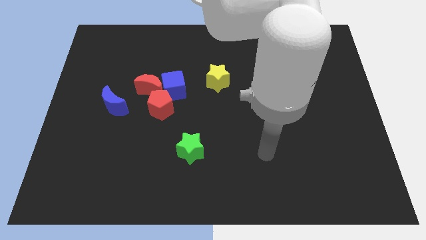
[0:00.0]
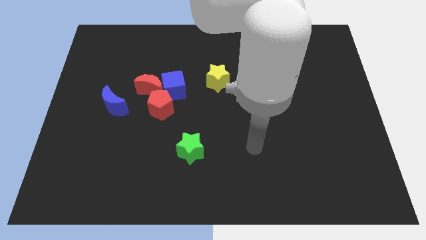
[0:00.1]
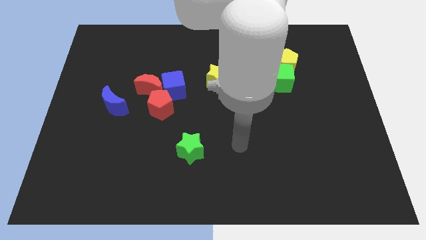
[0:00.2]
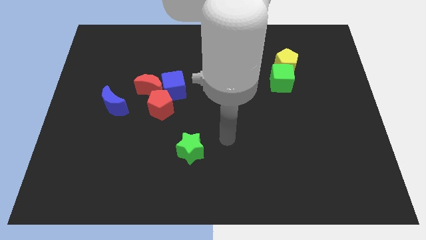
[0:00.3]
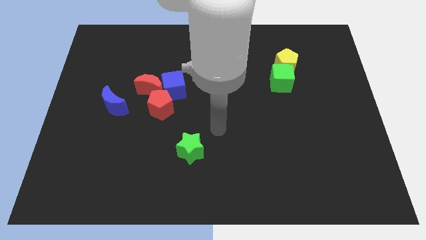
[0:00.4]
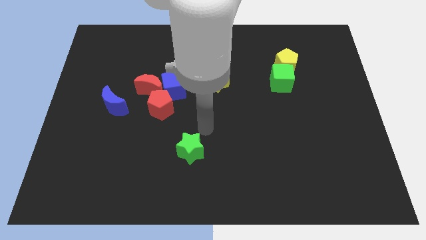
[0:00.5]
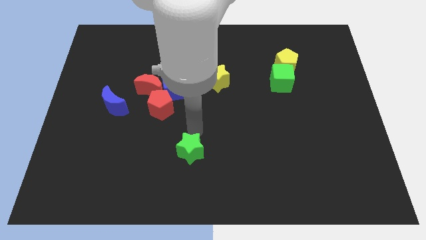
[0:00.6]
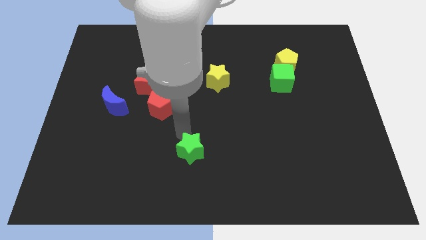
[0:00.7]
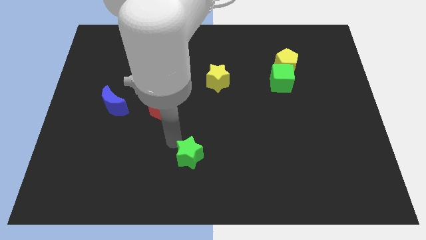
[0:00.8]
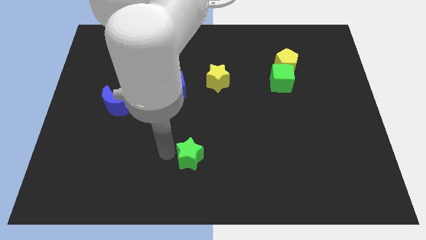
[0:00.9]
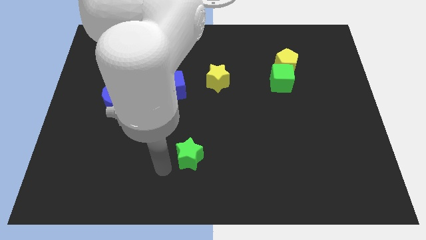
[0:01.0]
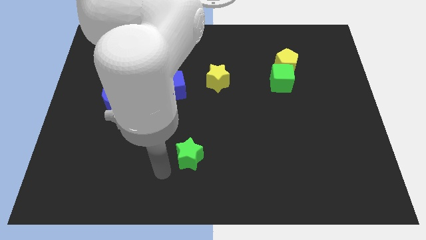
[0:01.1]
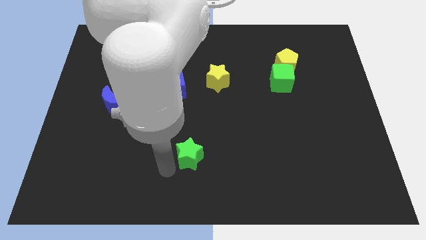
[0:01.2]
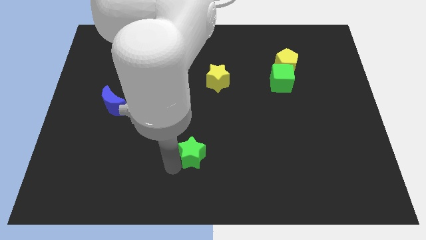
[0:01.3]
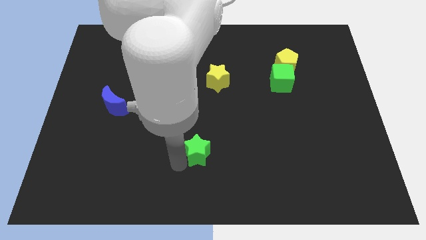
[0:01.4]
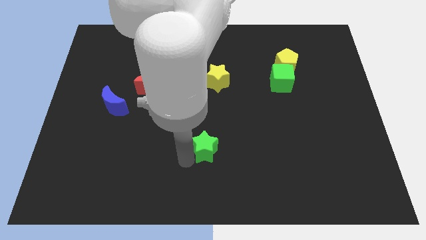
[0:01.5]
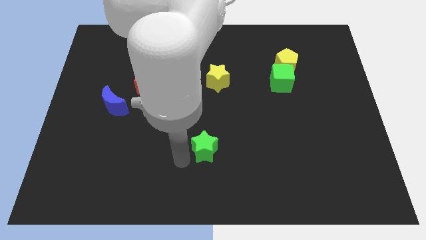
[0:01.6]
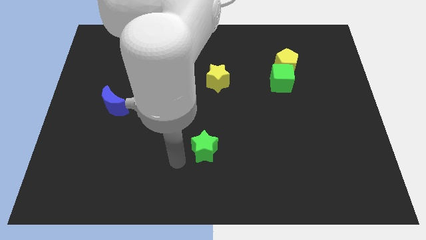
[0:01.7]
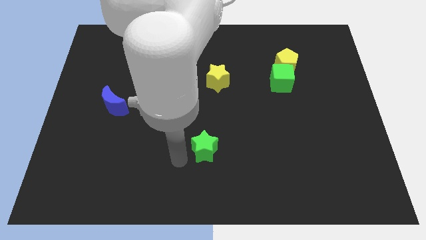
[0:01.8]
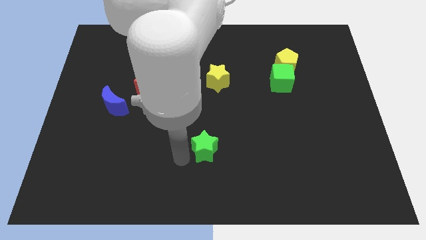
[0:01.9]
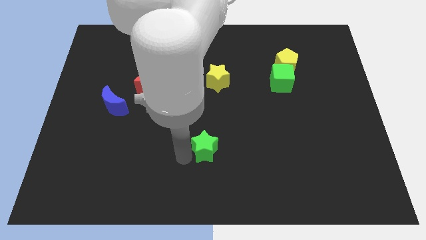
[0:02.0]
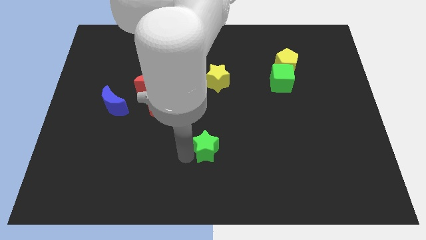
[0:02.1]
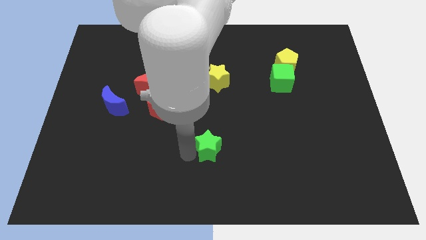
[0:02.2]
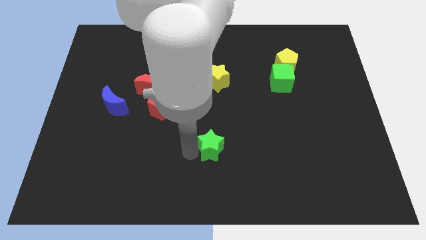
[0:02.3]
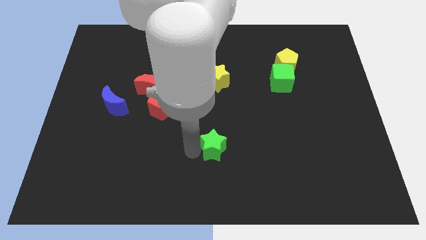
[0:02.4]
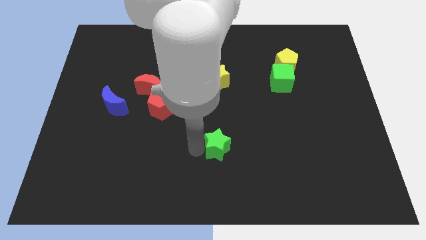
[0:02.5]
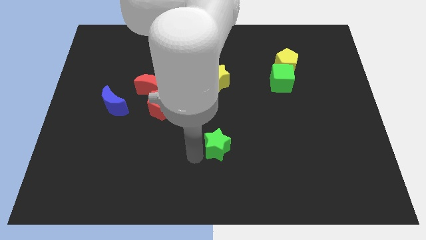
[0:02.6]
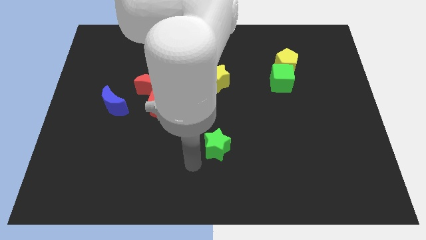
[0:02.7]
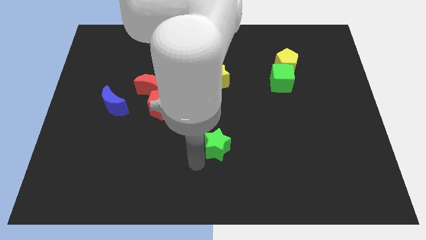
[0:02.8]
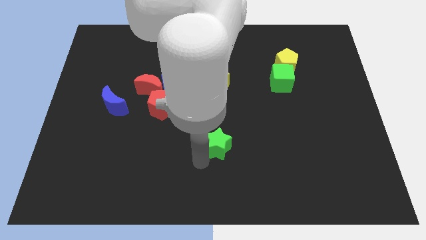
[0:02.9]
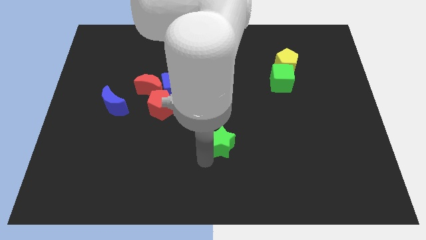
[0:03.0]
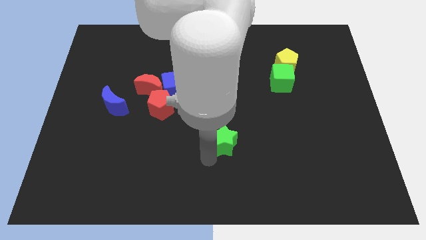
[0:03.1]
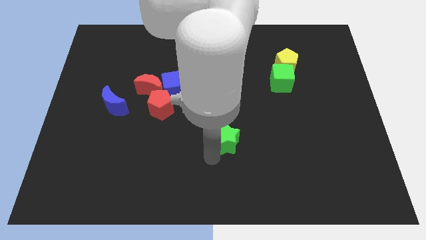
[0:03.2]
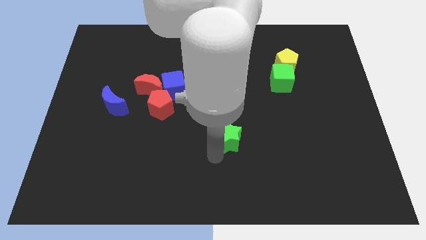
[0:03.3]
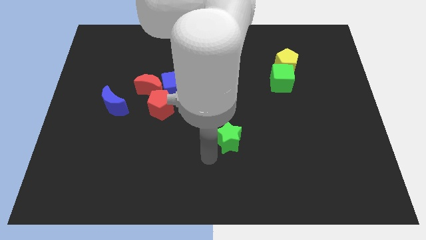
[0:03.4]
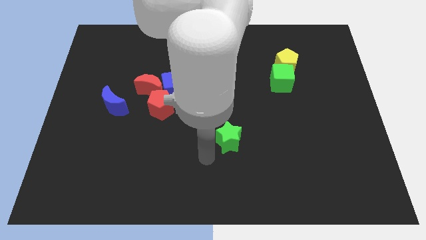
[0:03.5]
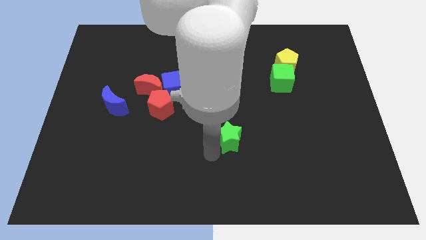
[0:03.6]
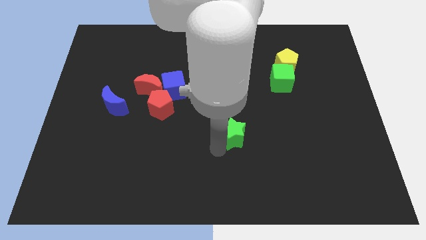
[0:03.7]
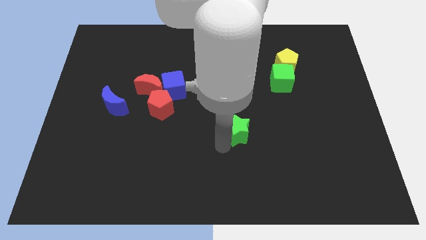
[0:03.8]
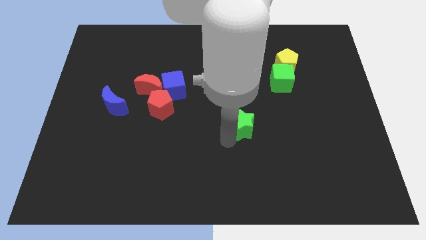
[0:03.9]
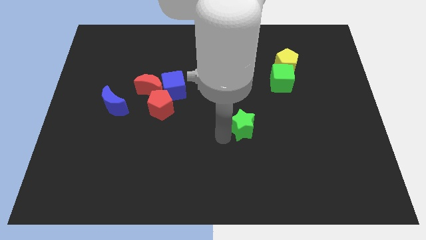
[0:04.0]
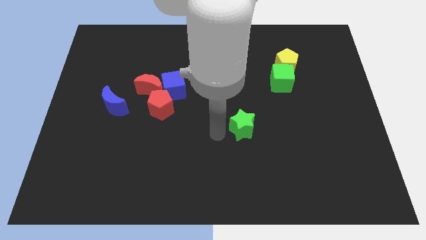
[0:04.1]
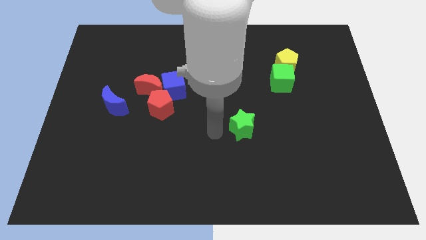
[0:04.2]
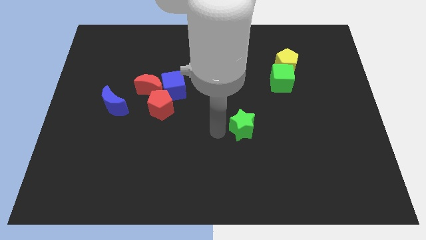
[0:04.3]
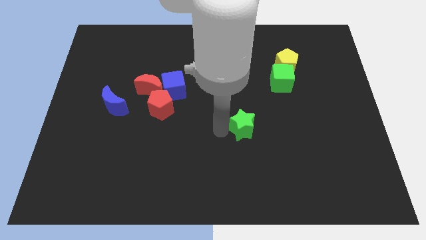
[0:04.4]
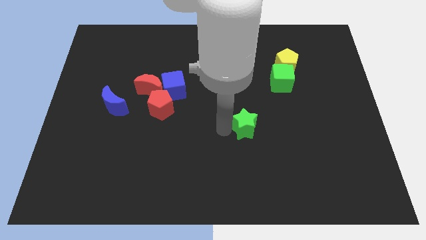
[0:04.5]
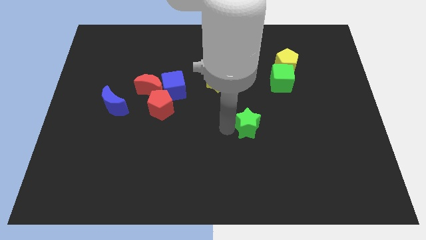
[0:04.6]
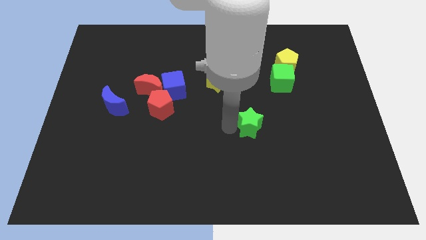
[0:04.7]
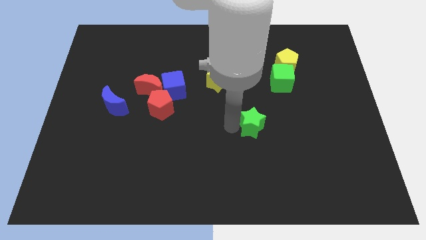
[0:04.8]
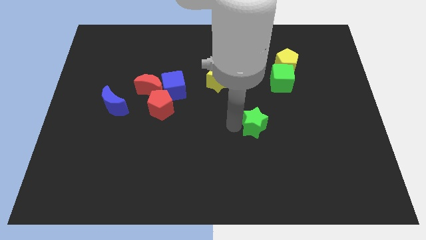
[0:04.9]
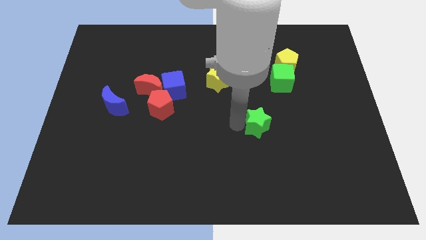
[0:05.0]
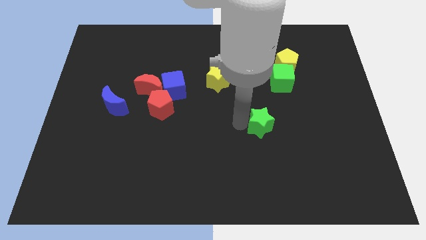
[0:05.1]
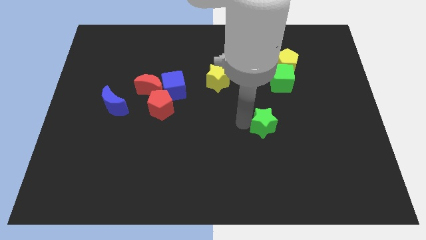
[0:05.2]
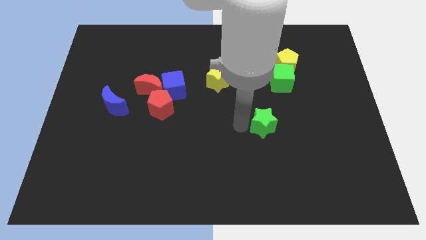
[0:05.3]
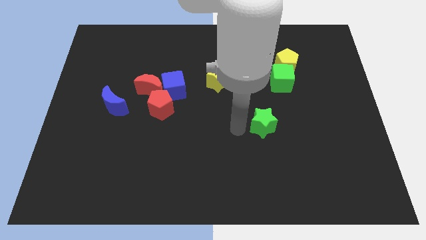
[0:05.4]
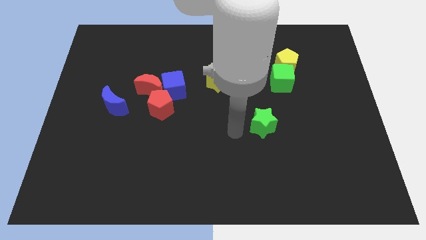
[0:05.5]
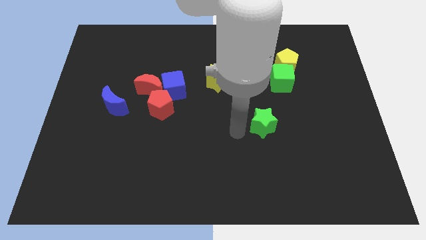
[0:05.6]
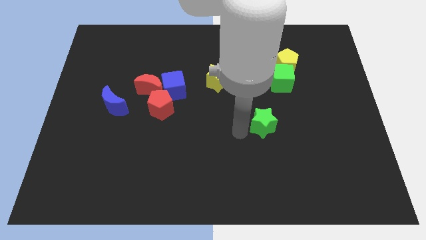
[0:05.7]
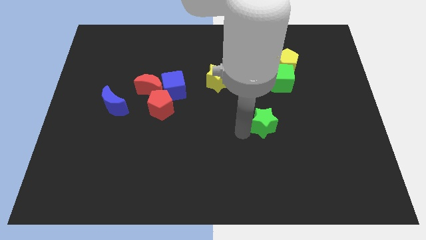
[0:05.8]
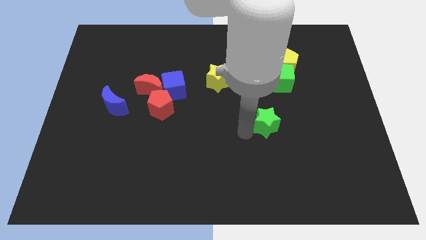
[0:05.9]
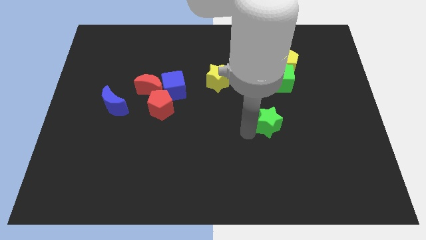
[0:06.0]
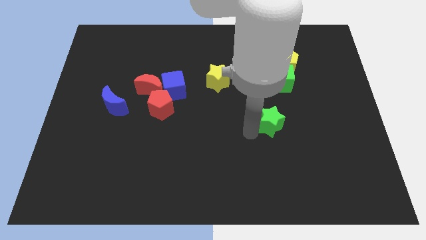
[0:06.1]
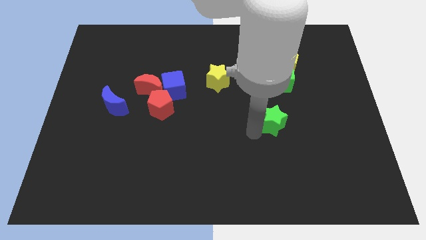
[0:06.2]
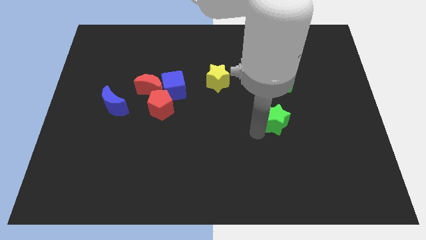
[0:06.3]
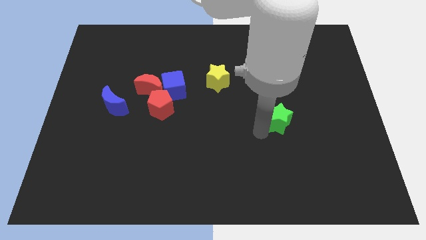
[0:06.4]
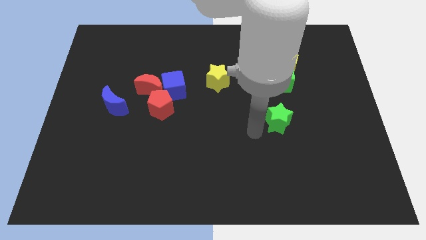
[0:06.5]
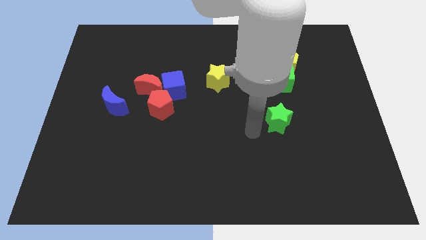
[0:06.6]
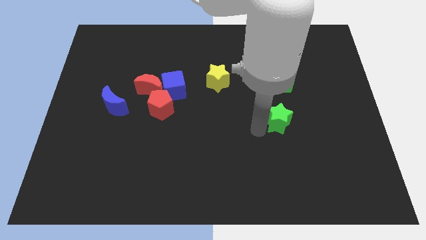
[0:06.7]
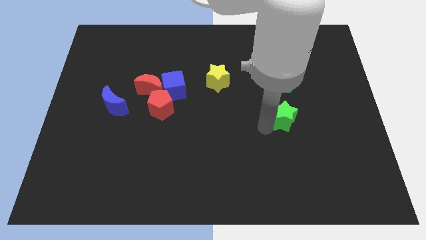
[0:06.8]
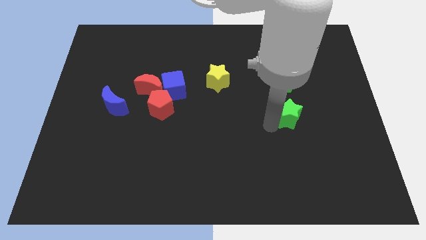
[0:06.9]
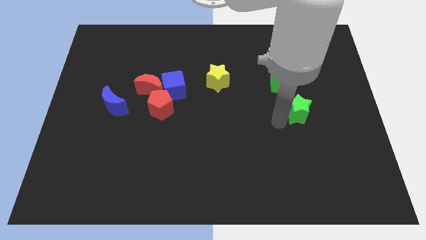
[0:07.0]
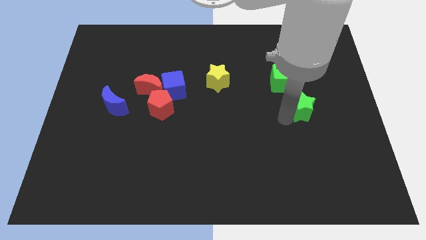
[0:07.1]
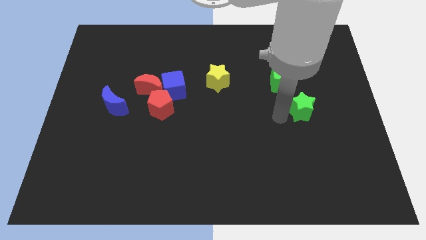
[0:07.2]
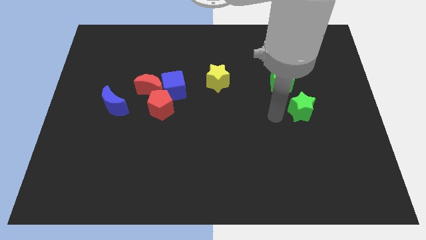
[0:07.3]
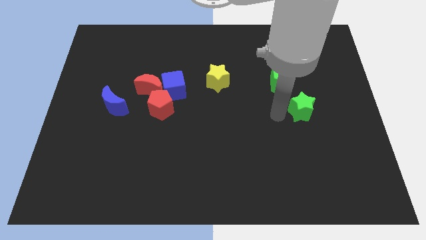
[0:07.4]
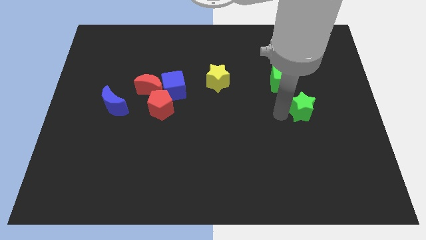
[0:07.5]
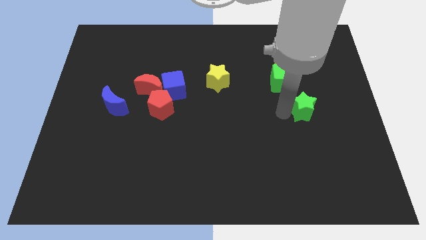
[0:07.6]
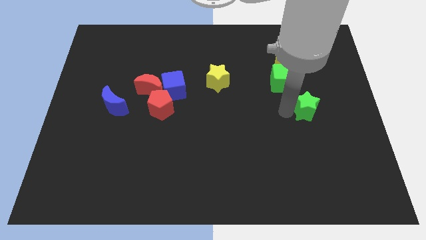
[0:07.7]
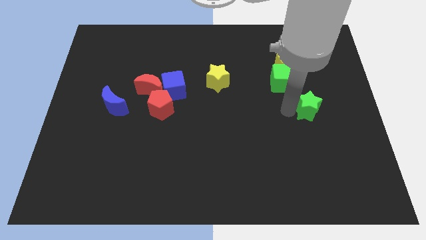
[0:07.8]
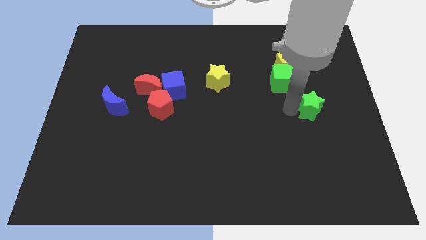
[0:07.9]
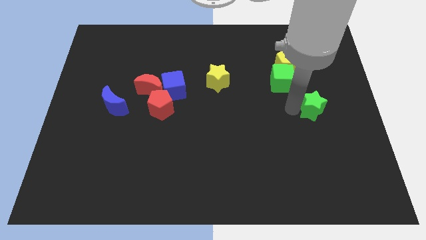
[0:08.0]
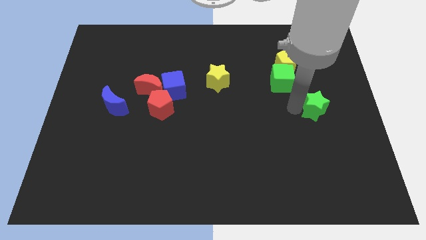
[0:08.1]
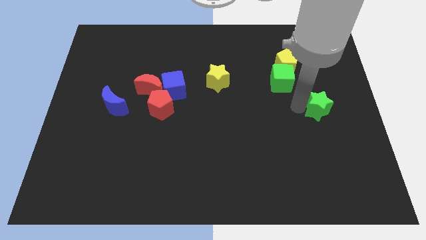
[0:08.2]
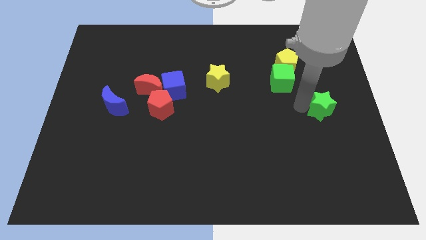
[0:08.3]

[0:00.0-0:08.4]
push the green star to the center right
